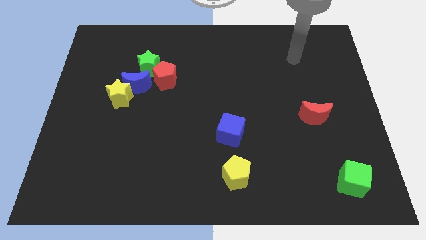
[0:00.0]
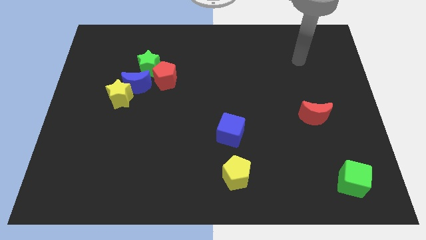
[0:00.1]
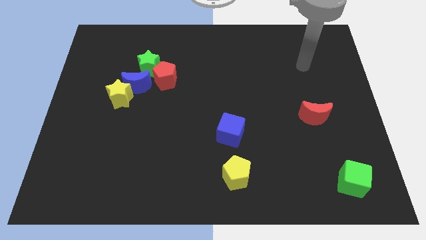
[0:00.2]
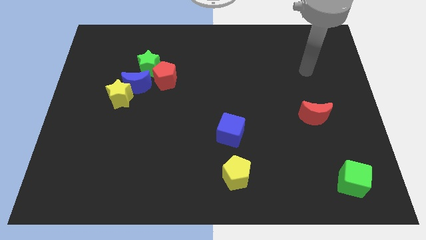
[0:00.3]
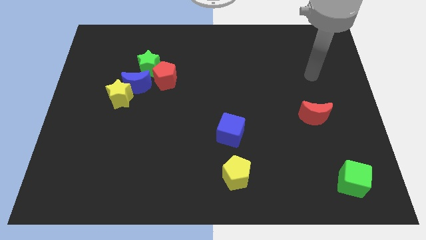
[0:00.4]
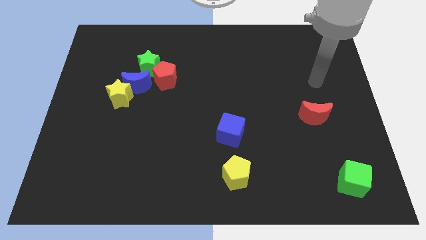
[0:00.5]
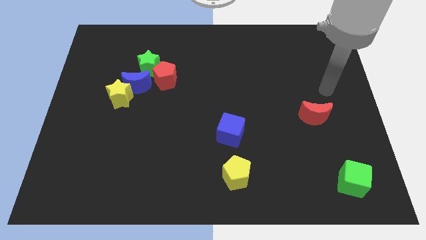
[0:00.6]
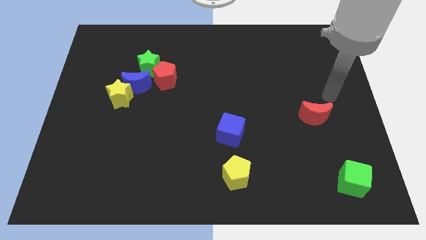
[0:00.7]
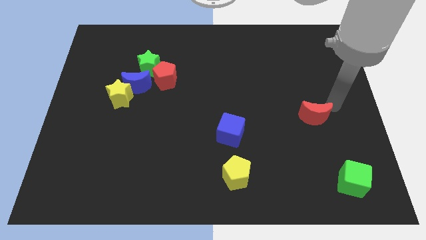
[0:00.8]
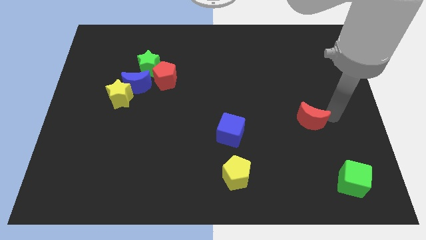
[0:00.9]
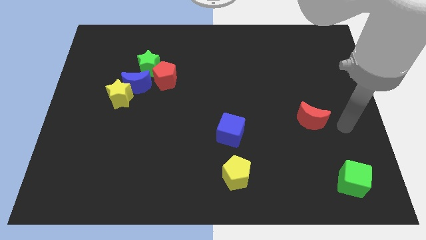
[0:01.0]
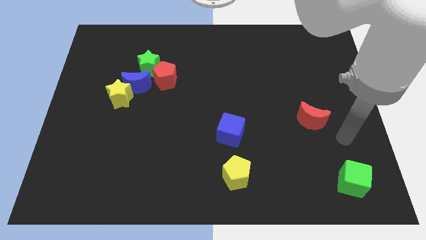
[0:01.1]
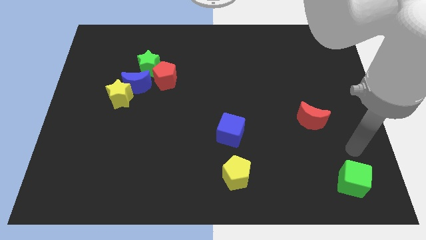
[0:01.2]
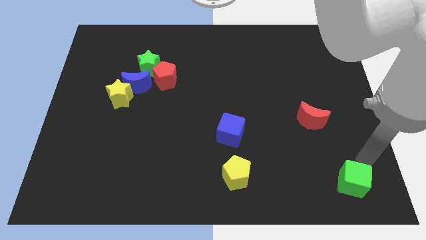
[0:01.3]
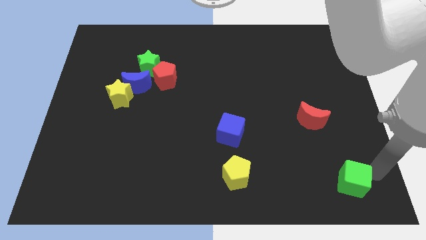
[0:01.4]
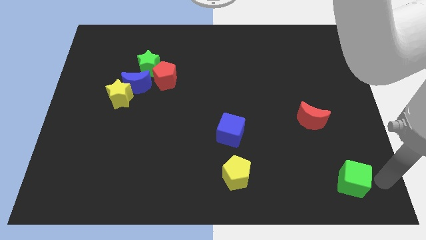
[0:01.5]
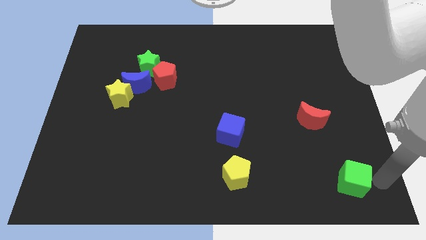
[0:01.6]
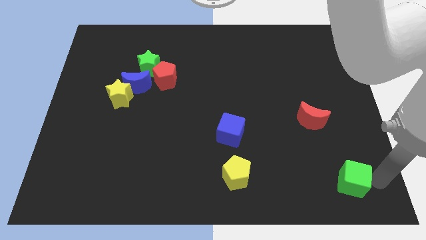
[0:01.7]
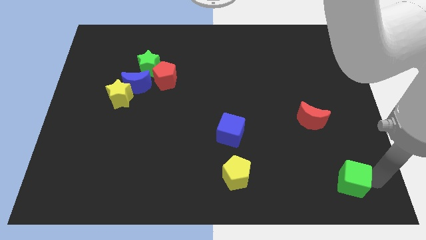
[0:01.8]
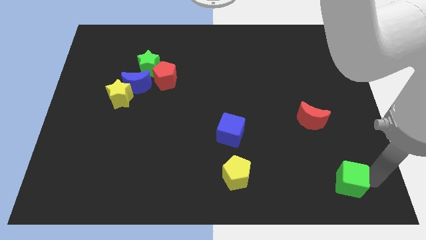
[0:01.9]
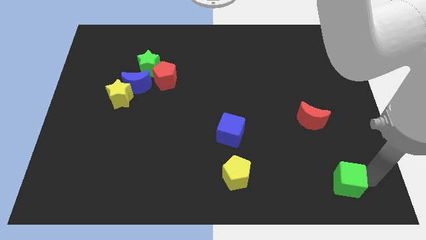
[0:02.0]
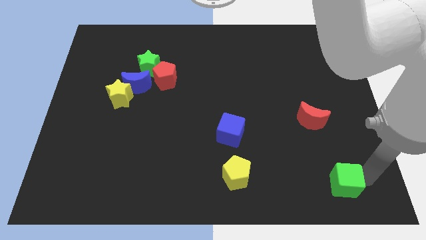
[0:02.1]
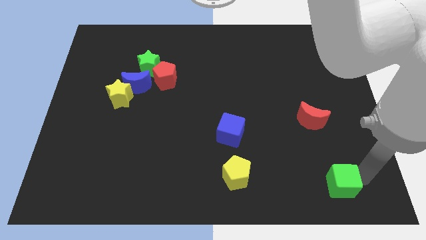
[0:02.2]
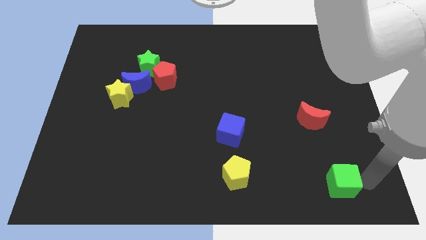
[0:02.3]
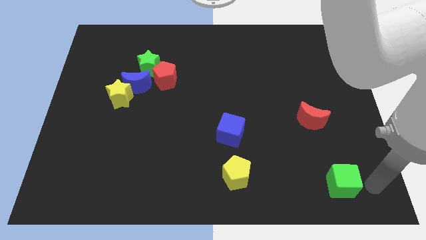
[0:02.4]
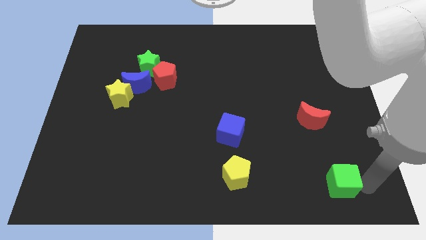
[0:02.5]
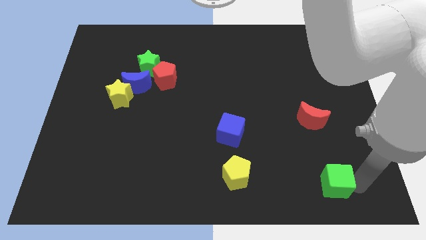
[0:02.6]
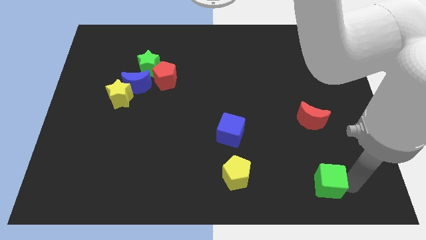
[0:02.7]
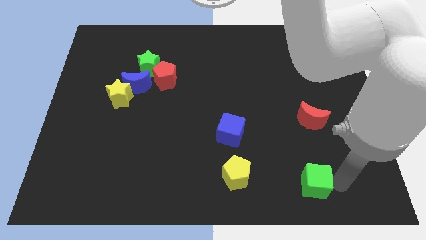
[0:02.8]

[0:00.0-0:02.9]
push the green cube to the left a bit

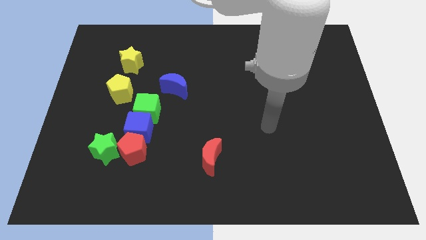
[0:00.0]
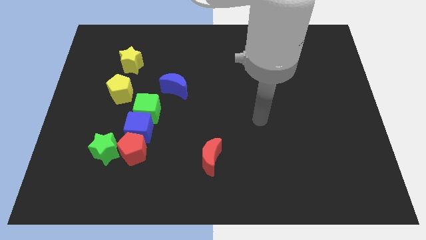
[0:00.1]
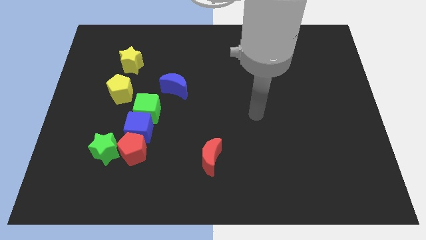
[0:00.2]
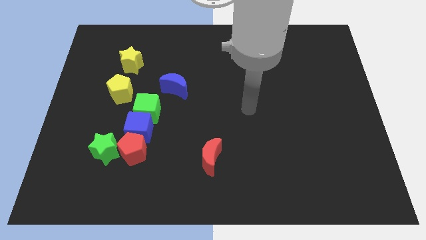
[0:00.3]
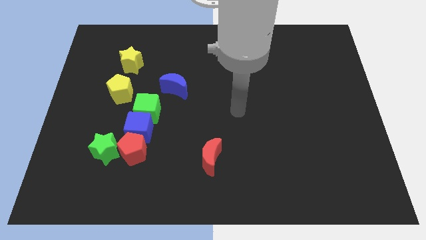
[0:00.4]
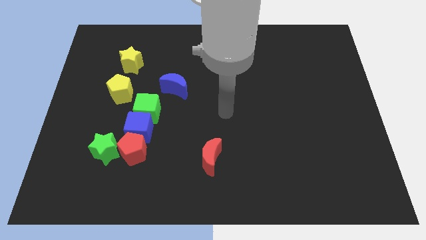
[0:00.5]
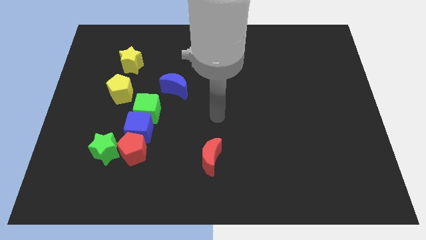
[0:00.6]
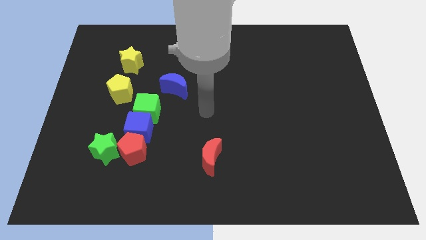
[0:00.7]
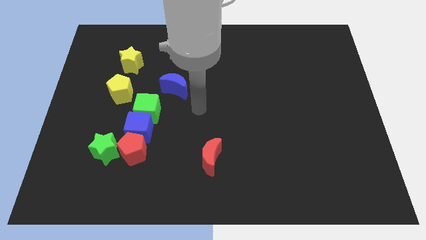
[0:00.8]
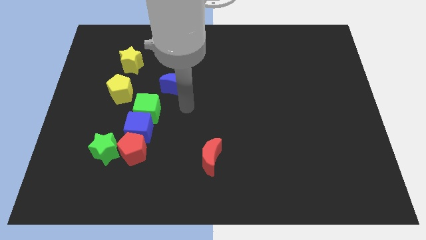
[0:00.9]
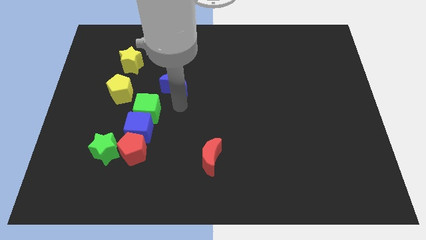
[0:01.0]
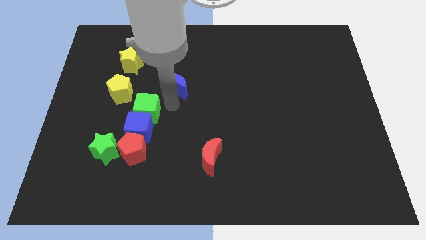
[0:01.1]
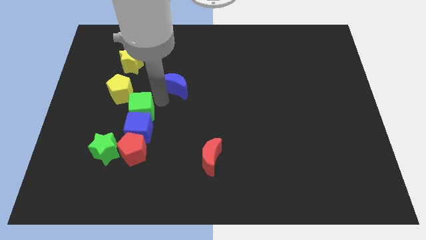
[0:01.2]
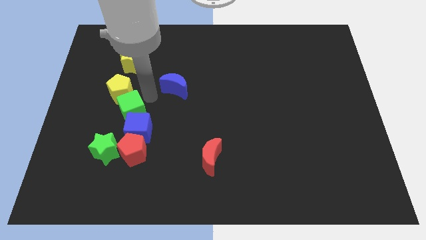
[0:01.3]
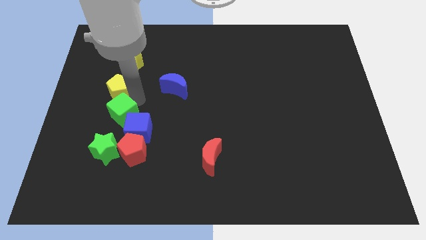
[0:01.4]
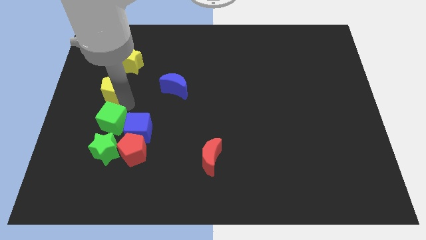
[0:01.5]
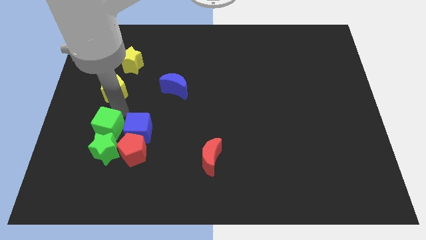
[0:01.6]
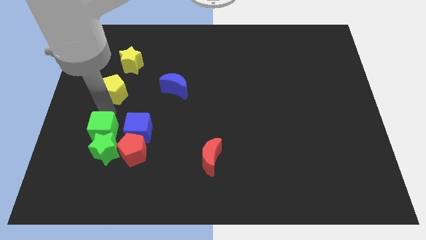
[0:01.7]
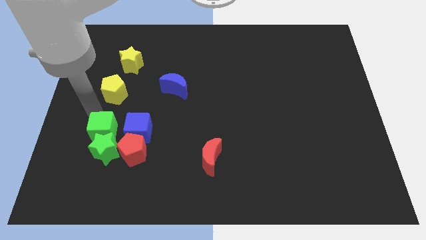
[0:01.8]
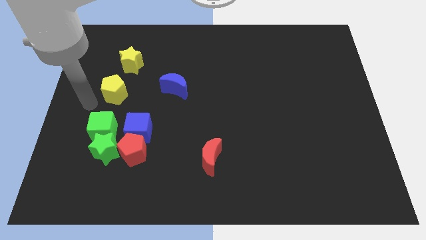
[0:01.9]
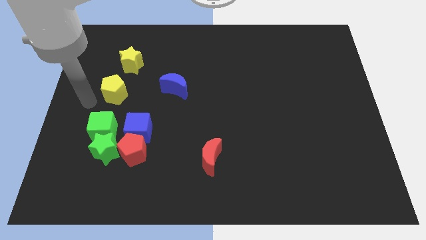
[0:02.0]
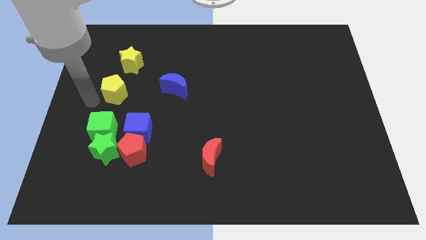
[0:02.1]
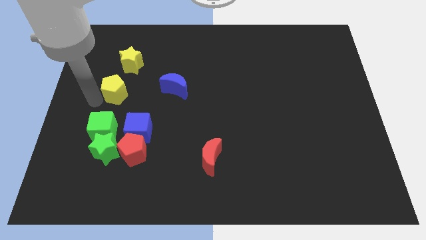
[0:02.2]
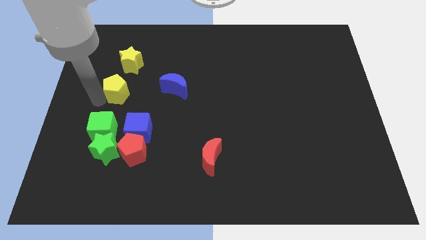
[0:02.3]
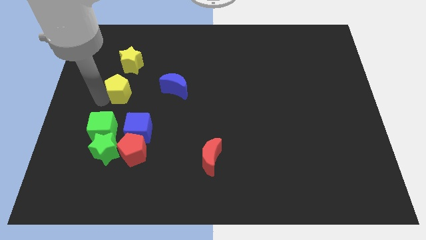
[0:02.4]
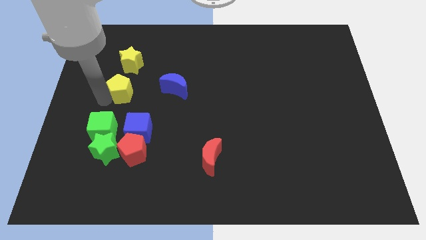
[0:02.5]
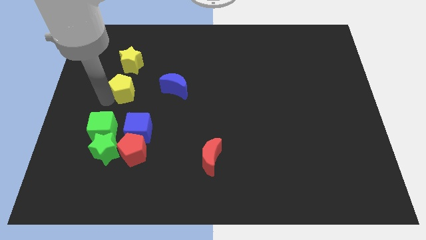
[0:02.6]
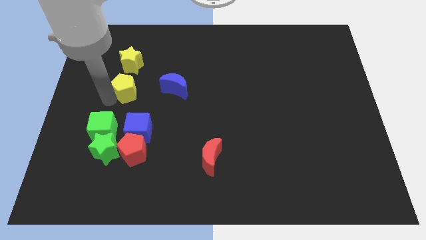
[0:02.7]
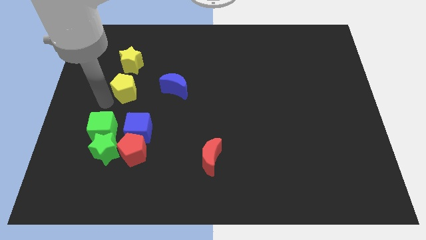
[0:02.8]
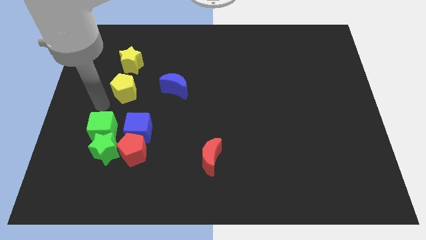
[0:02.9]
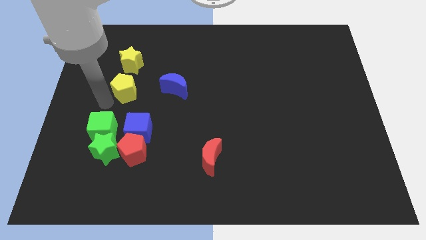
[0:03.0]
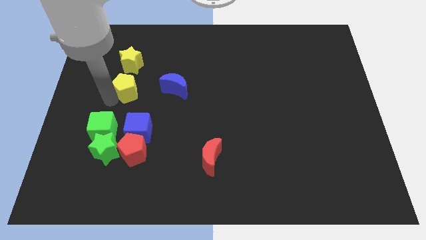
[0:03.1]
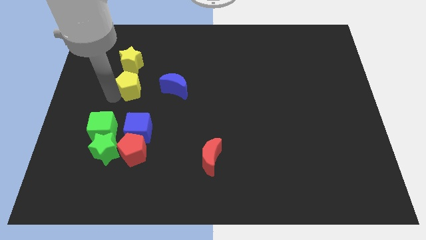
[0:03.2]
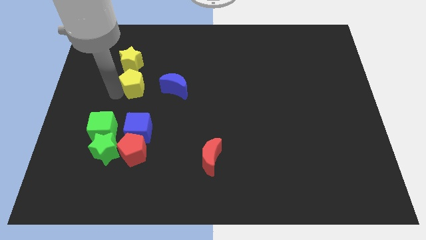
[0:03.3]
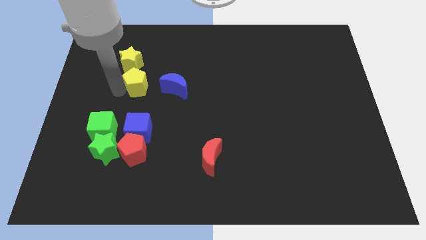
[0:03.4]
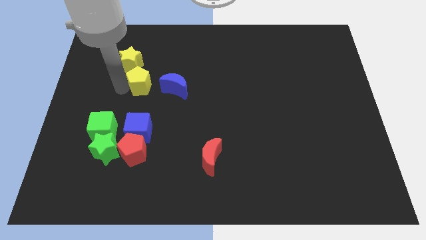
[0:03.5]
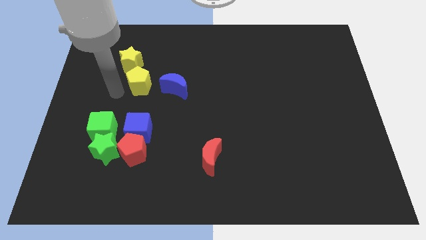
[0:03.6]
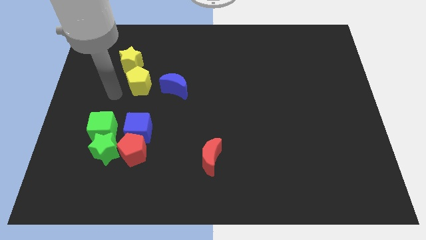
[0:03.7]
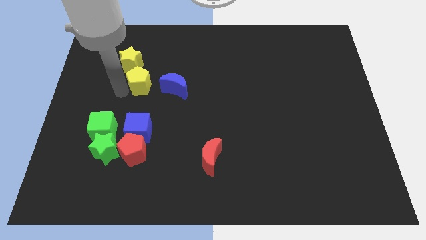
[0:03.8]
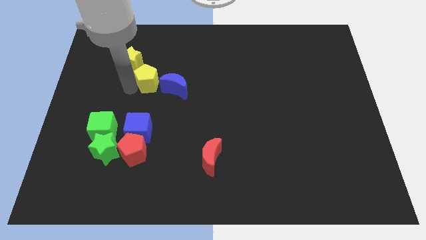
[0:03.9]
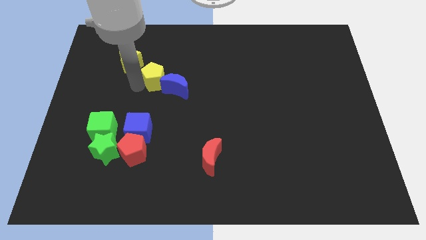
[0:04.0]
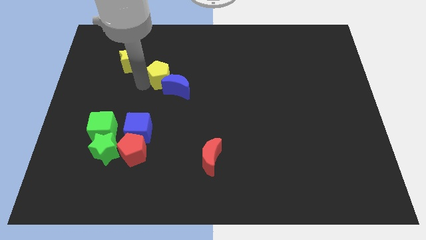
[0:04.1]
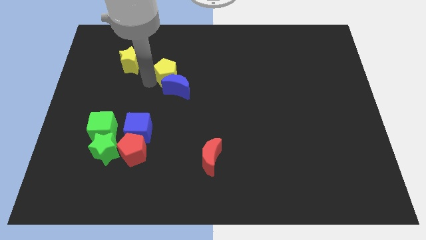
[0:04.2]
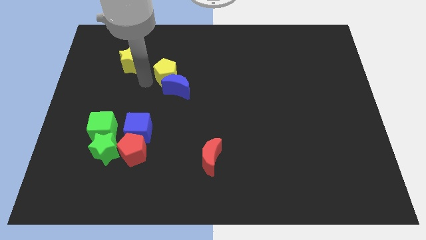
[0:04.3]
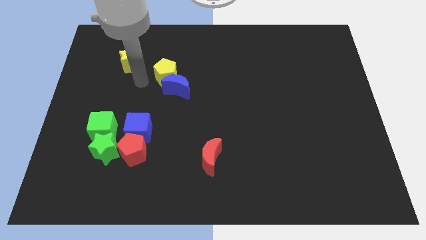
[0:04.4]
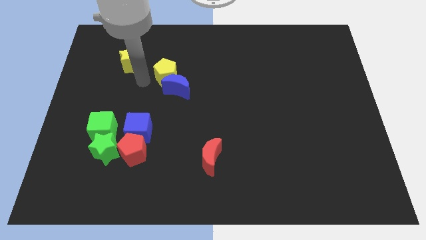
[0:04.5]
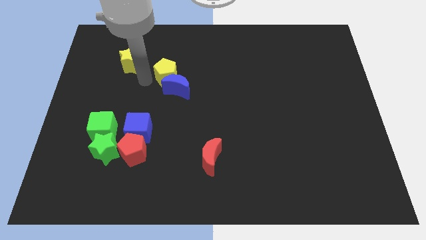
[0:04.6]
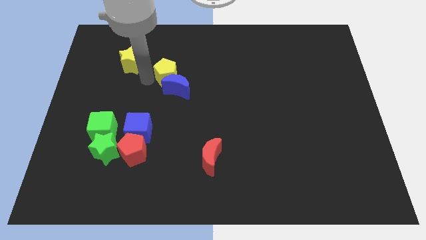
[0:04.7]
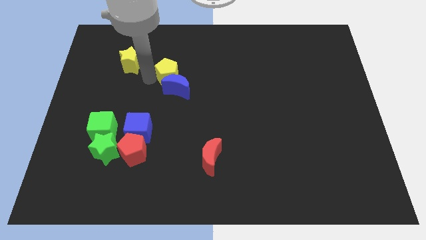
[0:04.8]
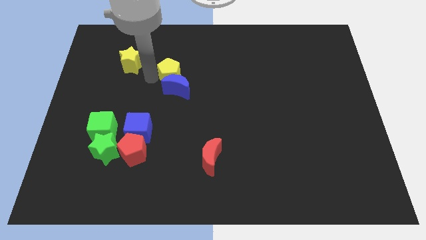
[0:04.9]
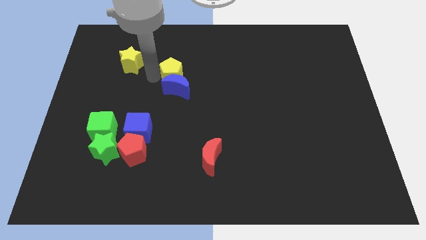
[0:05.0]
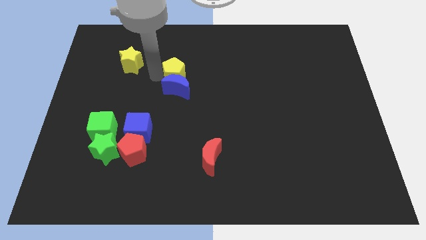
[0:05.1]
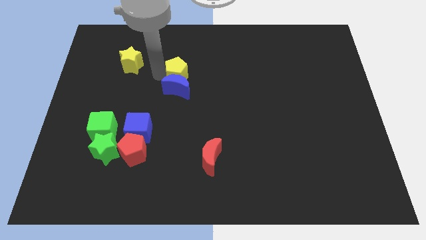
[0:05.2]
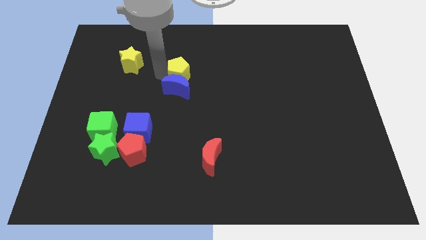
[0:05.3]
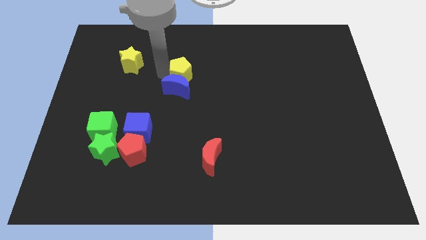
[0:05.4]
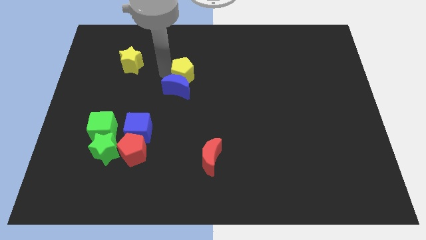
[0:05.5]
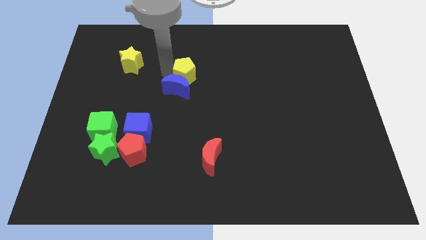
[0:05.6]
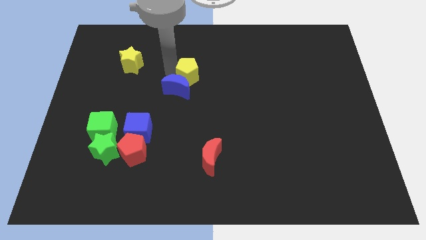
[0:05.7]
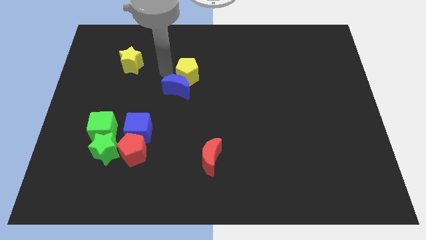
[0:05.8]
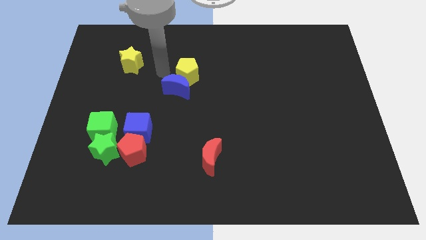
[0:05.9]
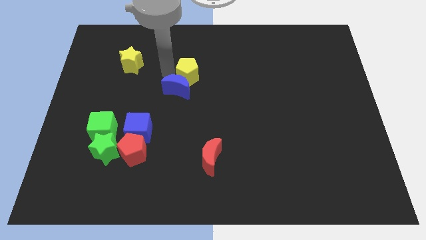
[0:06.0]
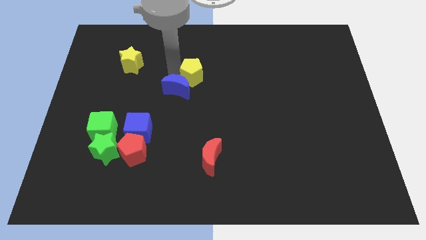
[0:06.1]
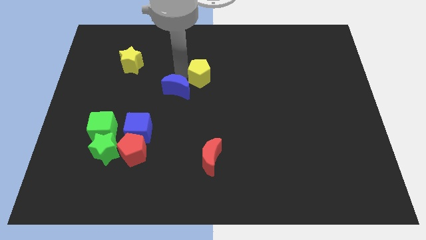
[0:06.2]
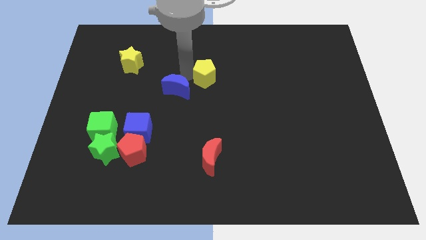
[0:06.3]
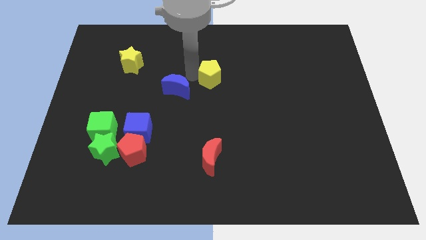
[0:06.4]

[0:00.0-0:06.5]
move the yellow pentagon right
